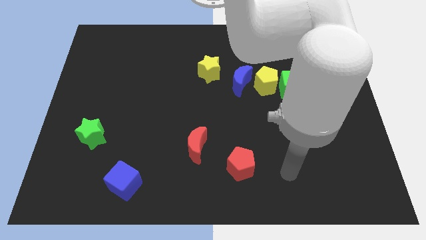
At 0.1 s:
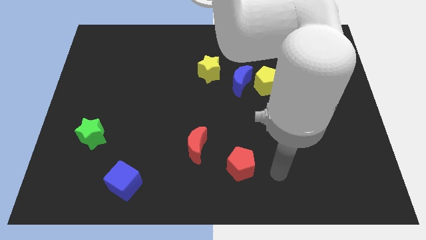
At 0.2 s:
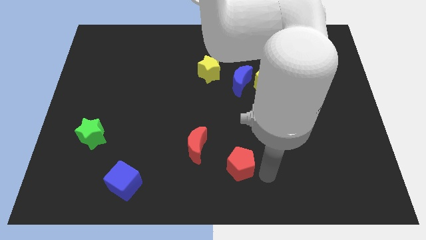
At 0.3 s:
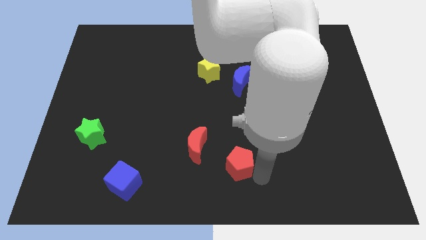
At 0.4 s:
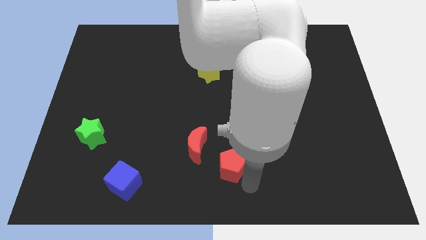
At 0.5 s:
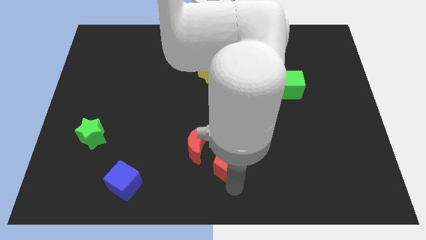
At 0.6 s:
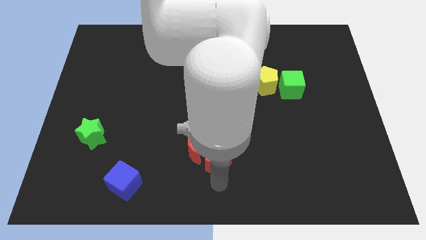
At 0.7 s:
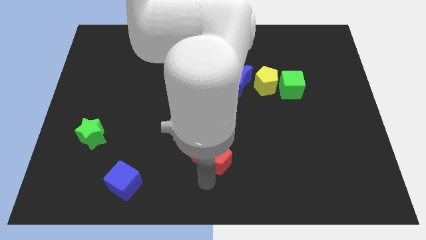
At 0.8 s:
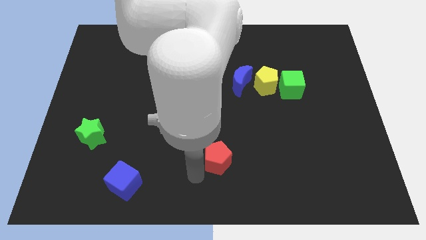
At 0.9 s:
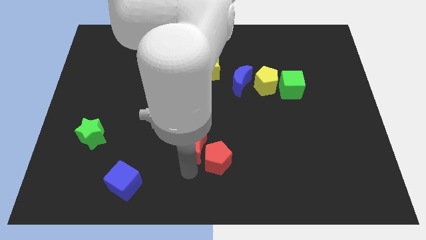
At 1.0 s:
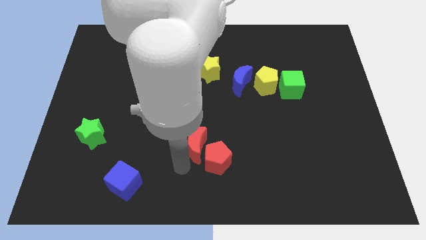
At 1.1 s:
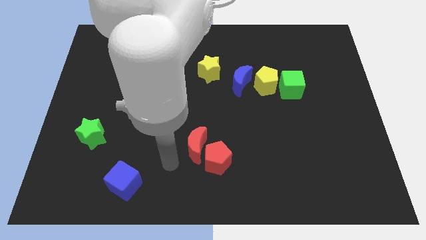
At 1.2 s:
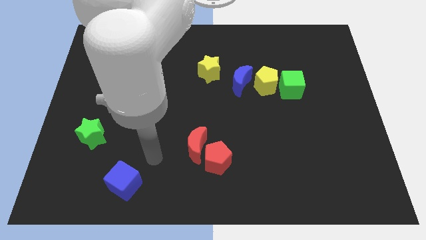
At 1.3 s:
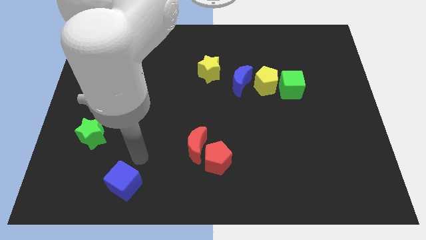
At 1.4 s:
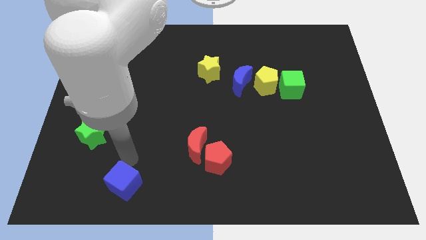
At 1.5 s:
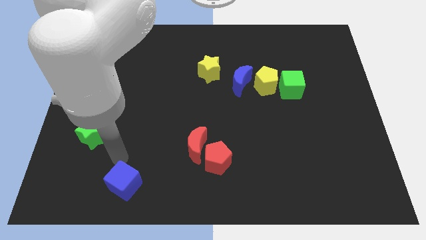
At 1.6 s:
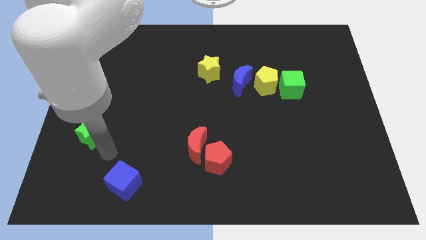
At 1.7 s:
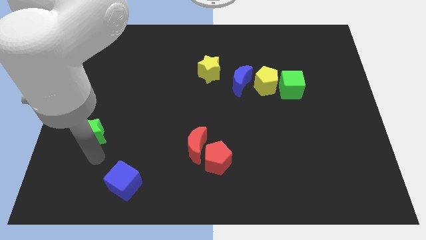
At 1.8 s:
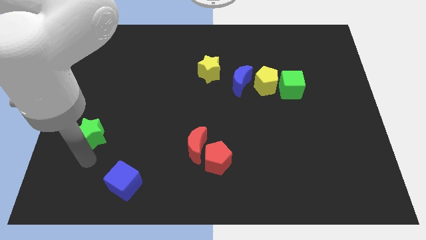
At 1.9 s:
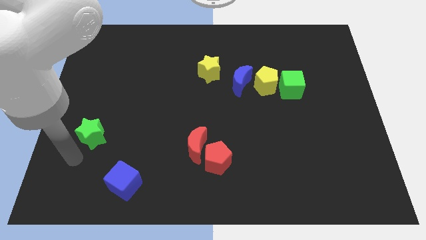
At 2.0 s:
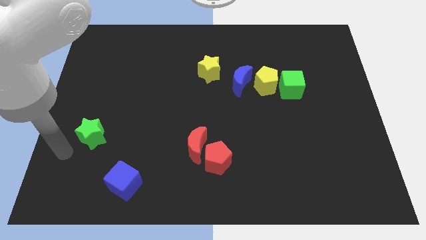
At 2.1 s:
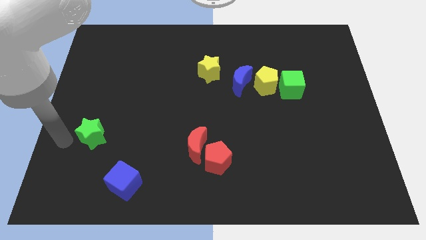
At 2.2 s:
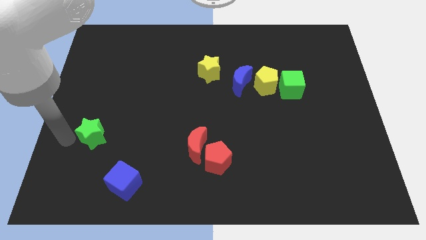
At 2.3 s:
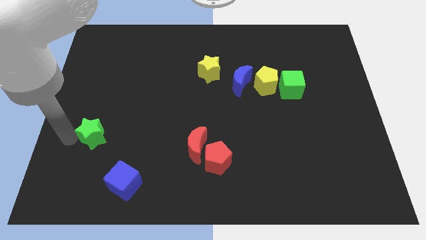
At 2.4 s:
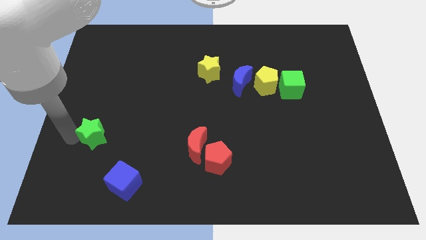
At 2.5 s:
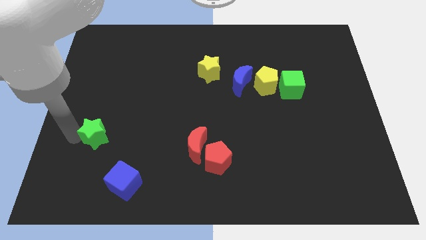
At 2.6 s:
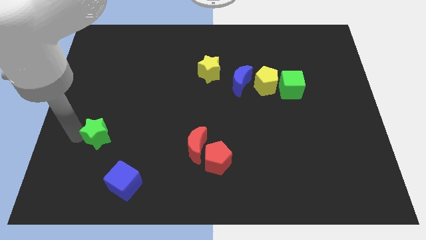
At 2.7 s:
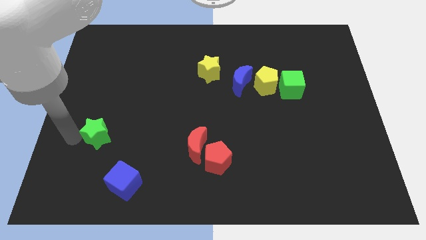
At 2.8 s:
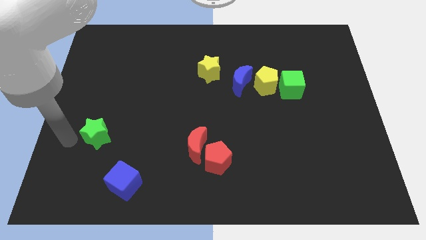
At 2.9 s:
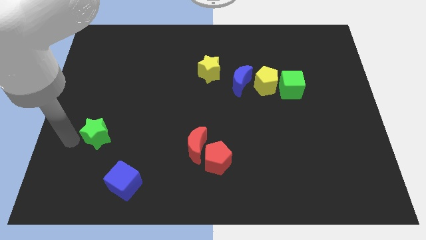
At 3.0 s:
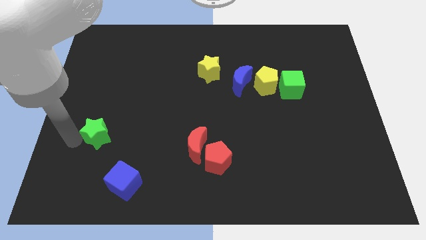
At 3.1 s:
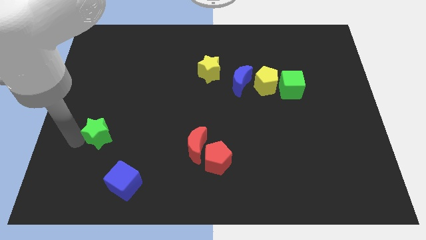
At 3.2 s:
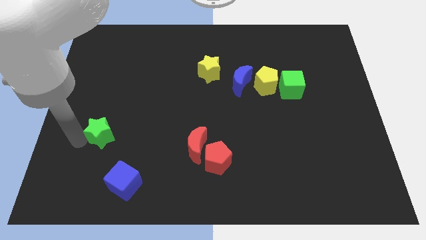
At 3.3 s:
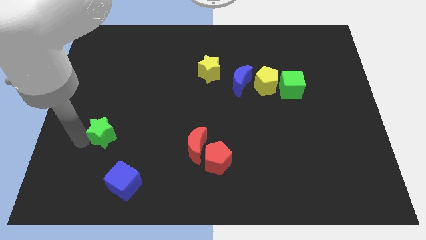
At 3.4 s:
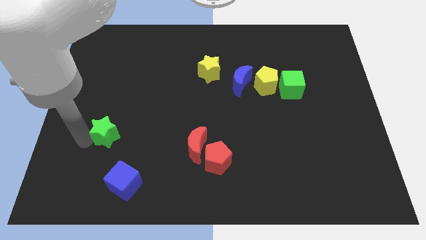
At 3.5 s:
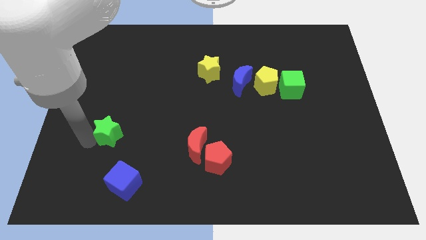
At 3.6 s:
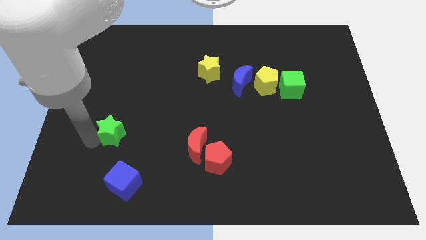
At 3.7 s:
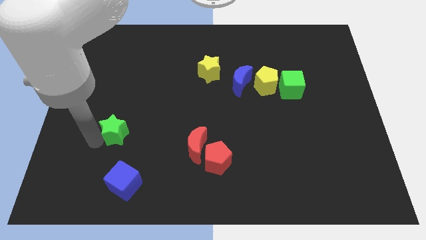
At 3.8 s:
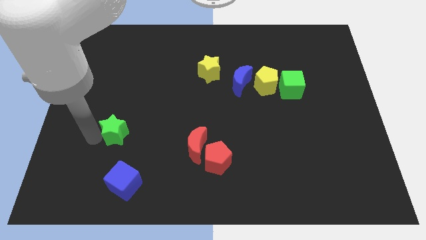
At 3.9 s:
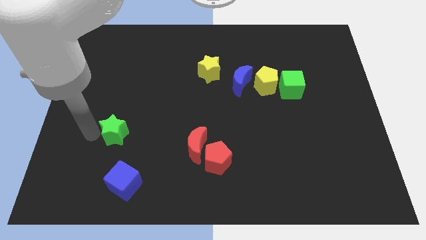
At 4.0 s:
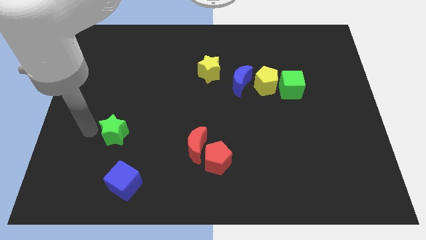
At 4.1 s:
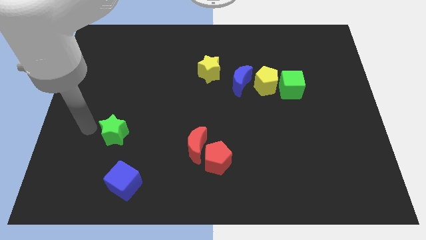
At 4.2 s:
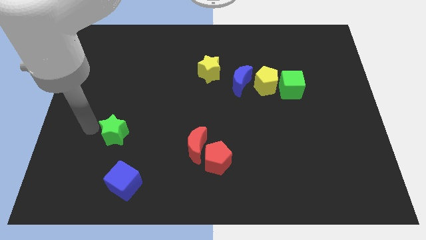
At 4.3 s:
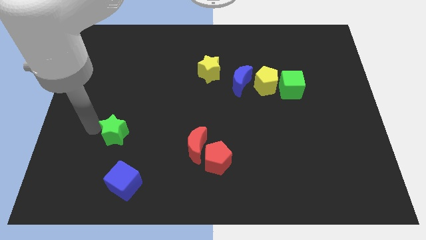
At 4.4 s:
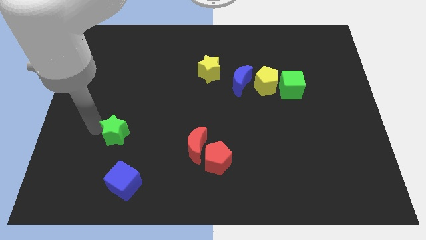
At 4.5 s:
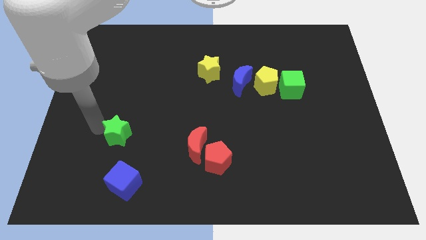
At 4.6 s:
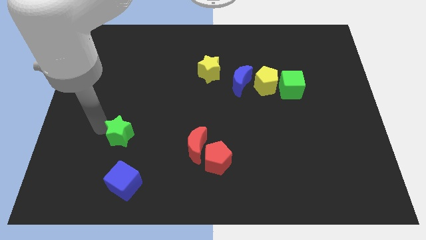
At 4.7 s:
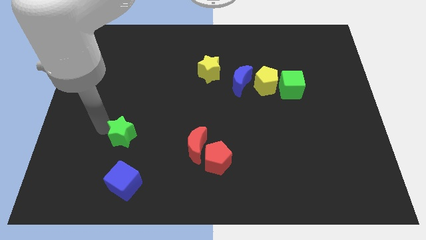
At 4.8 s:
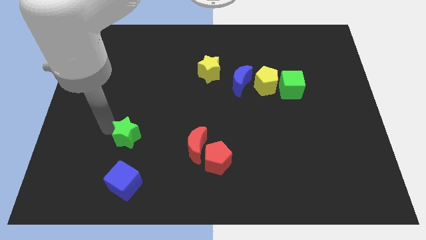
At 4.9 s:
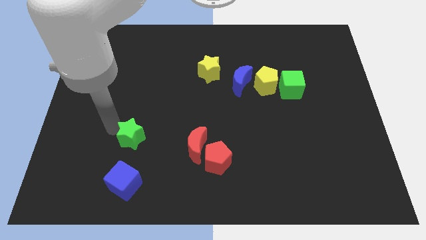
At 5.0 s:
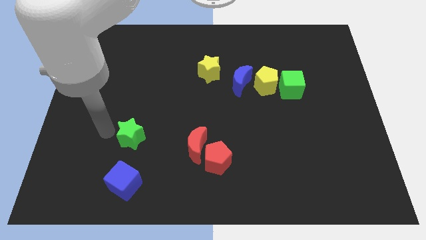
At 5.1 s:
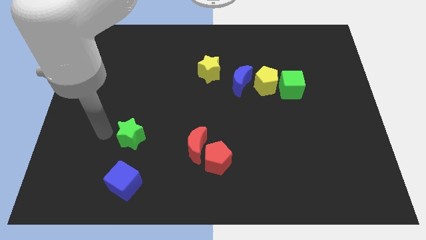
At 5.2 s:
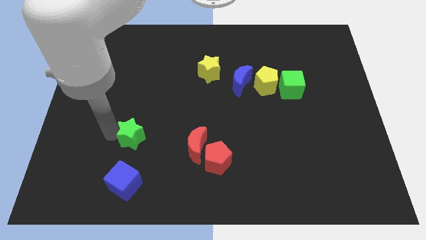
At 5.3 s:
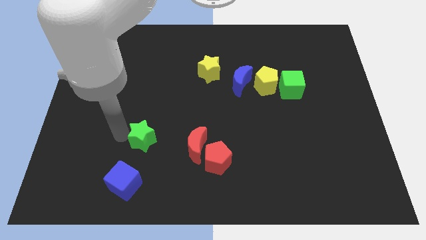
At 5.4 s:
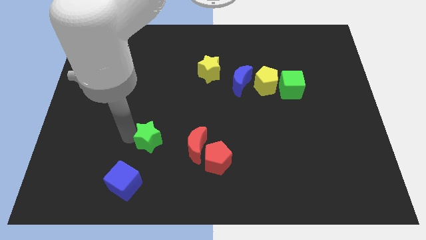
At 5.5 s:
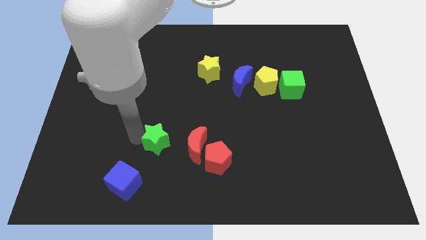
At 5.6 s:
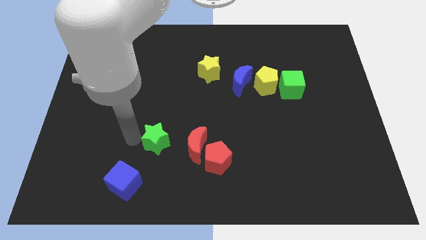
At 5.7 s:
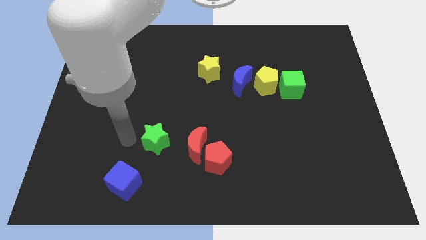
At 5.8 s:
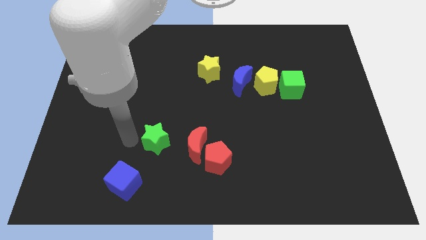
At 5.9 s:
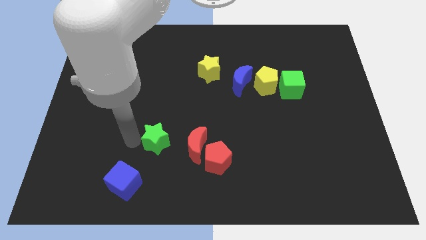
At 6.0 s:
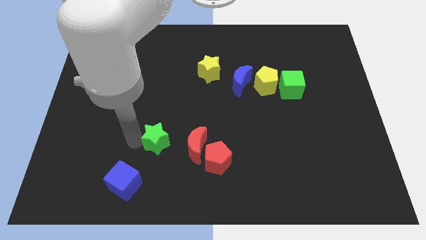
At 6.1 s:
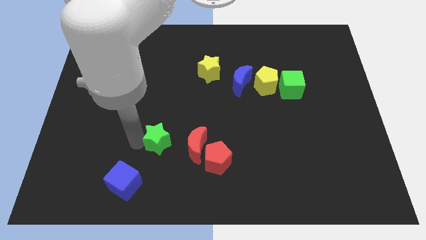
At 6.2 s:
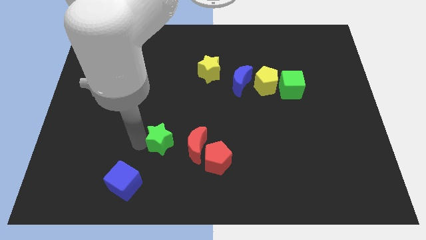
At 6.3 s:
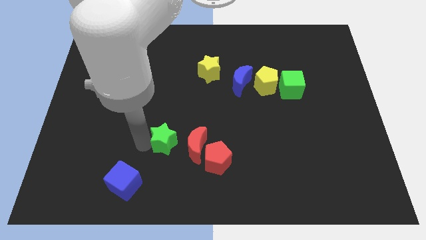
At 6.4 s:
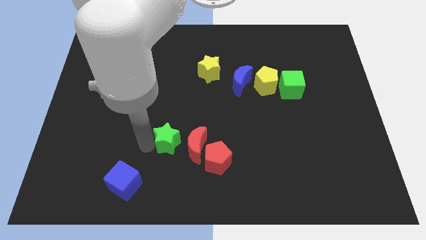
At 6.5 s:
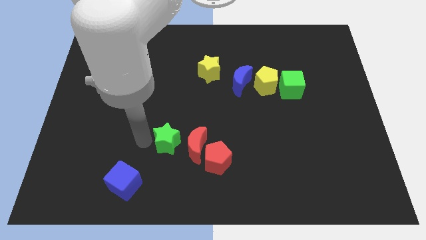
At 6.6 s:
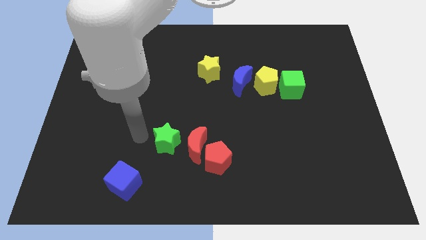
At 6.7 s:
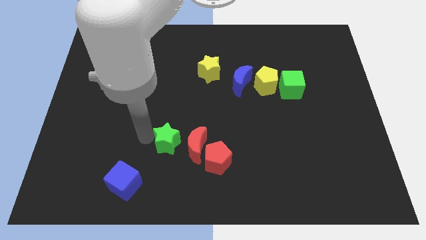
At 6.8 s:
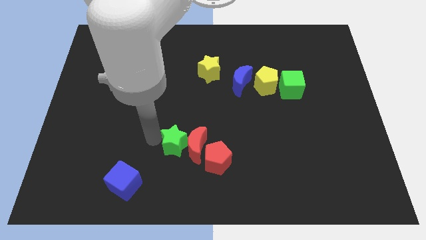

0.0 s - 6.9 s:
slide the green star next to the red moon
